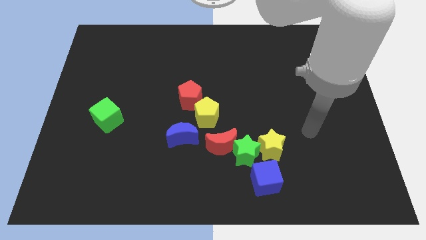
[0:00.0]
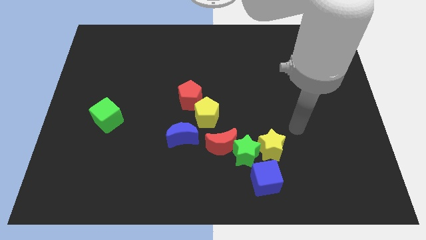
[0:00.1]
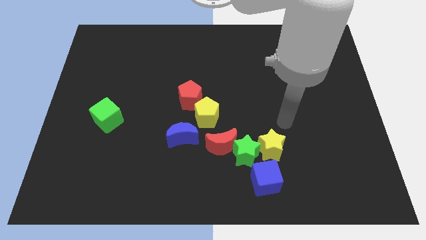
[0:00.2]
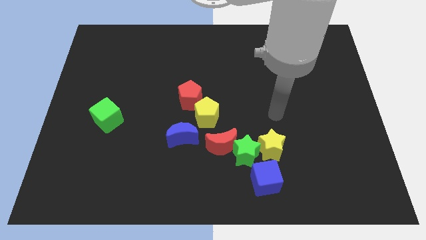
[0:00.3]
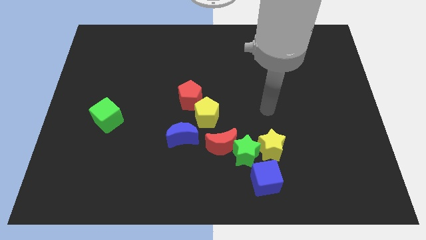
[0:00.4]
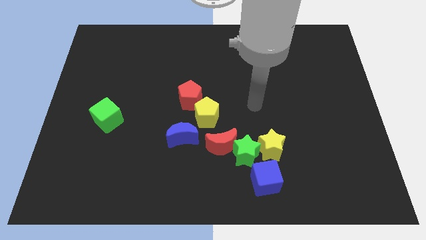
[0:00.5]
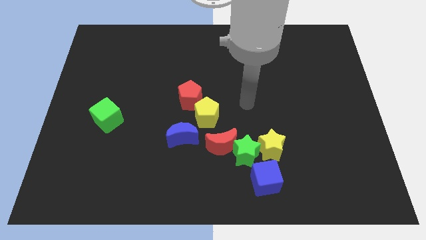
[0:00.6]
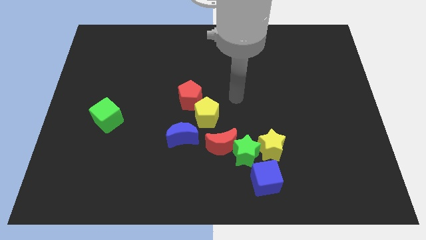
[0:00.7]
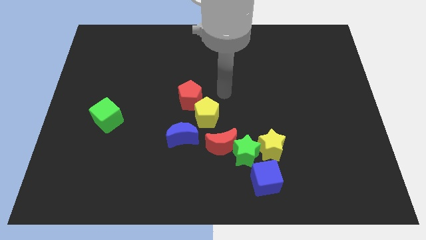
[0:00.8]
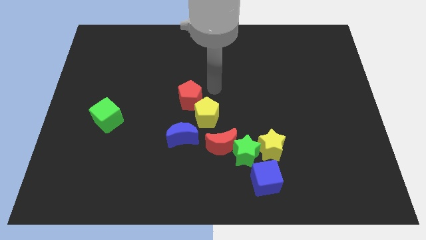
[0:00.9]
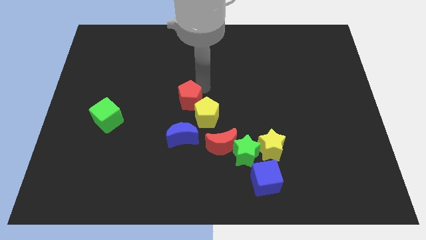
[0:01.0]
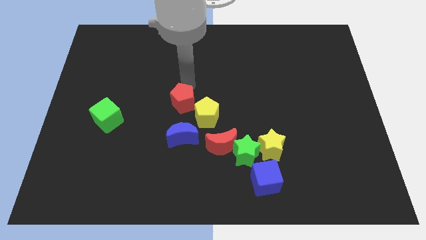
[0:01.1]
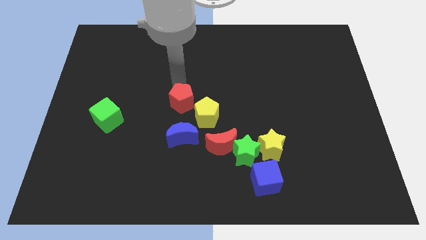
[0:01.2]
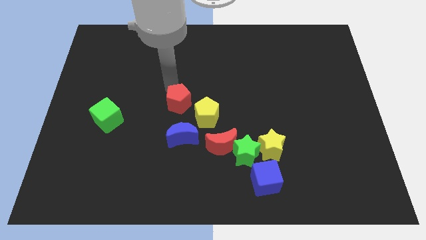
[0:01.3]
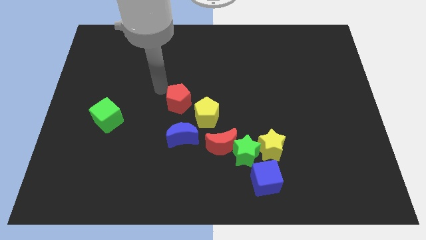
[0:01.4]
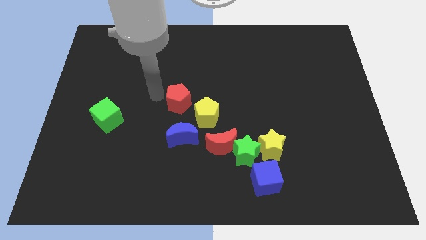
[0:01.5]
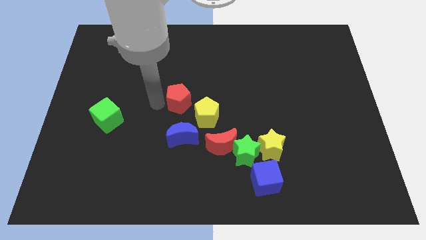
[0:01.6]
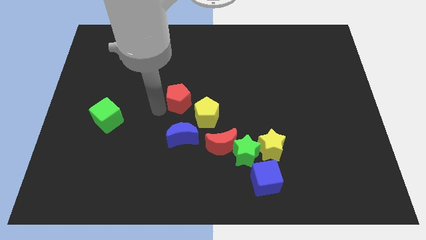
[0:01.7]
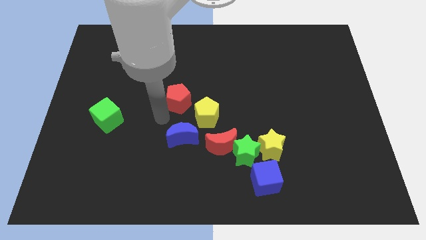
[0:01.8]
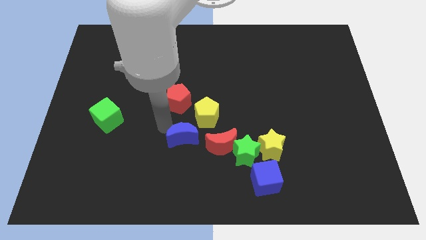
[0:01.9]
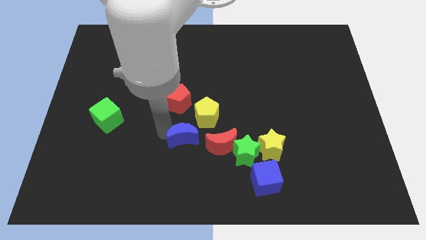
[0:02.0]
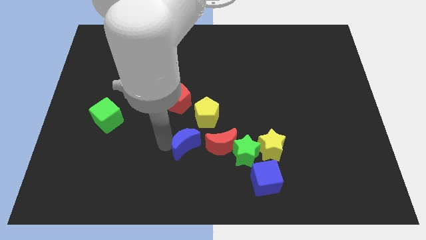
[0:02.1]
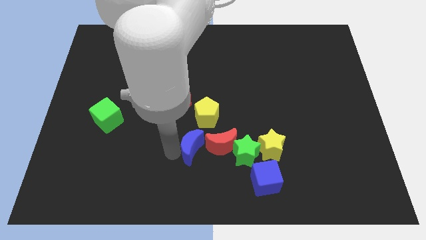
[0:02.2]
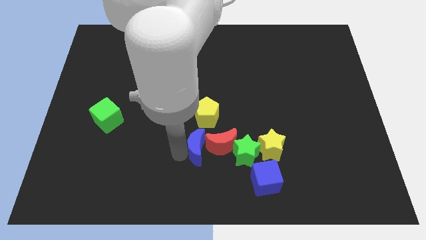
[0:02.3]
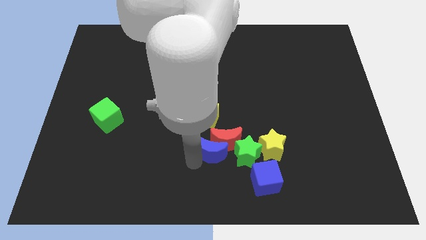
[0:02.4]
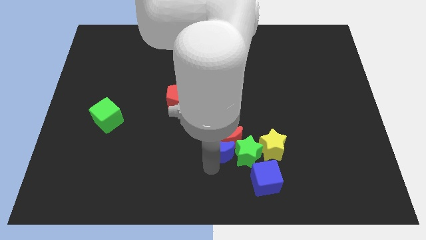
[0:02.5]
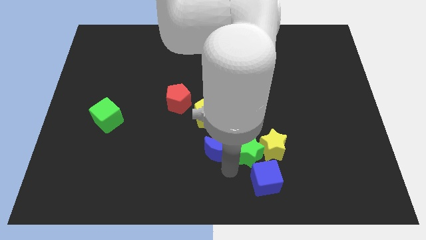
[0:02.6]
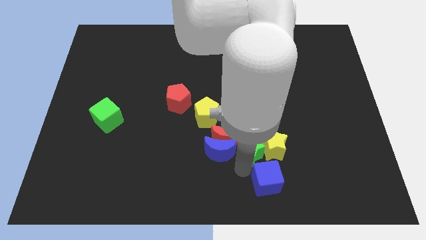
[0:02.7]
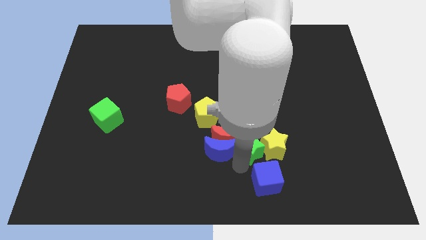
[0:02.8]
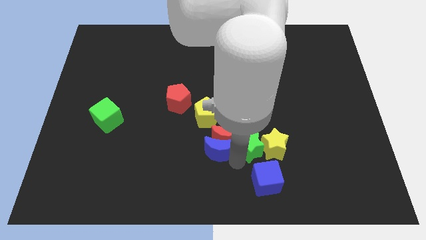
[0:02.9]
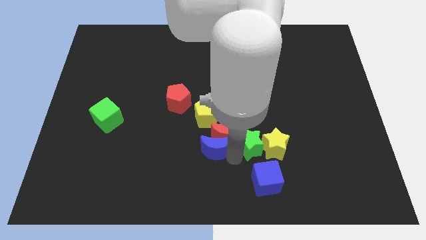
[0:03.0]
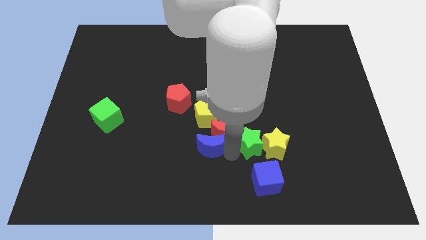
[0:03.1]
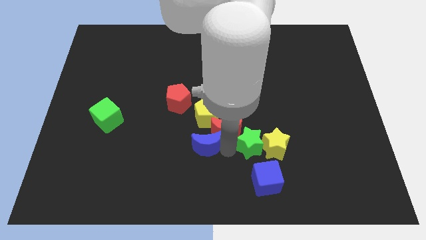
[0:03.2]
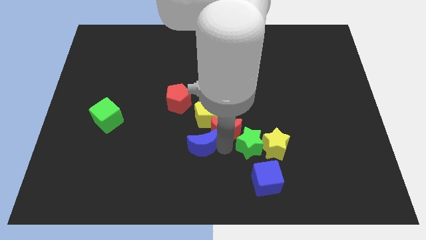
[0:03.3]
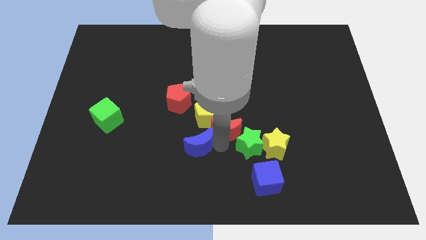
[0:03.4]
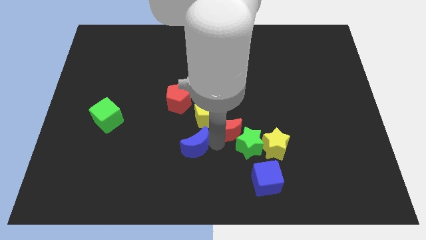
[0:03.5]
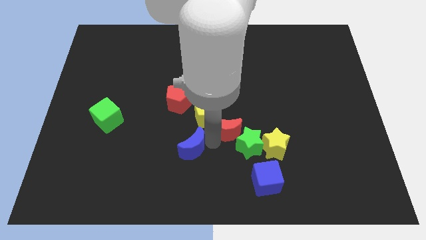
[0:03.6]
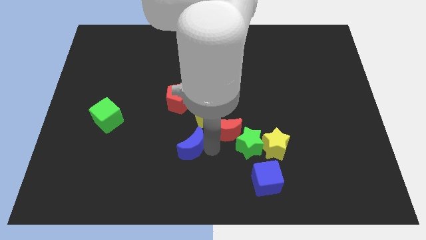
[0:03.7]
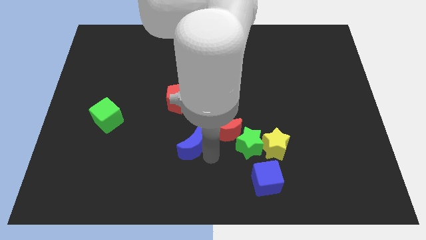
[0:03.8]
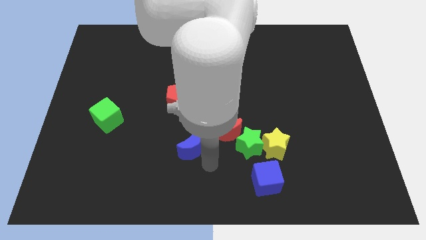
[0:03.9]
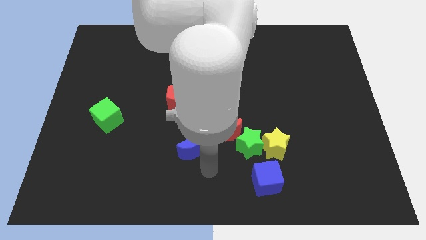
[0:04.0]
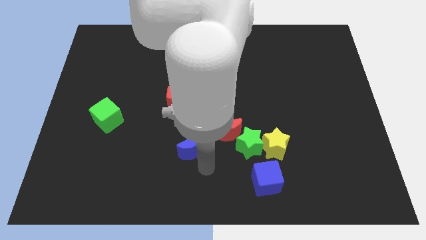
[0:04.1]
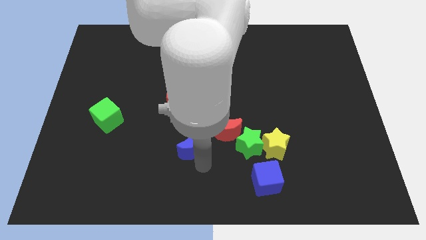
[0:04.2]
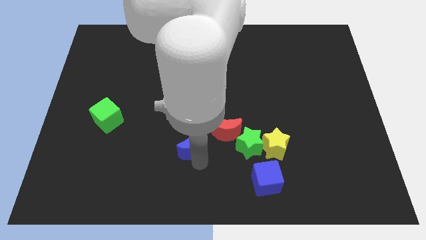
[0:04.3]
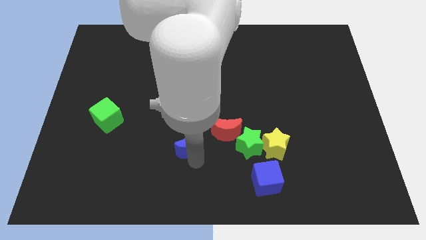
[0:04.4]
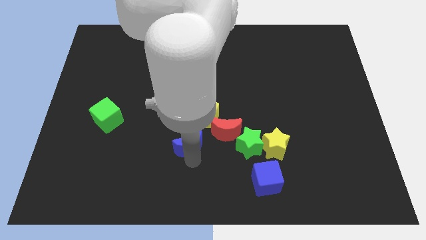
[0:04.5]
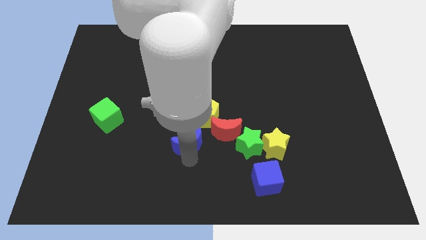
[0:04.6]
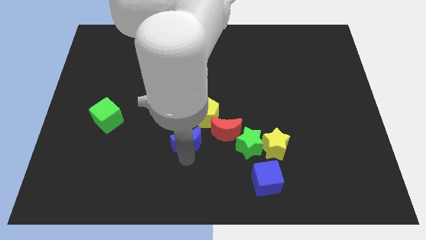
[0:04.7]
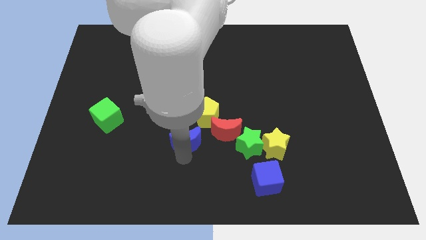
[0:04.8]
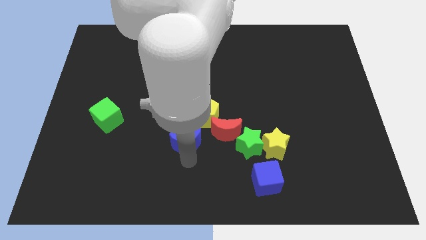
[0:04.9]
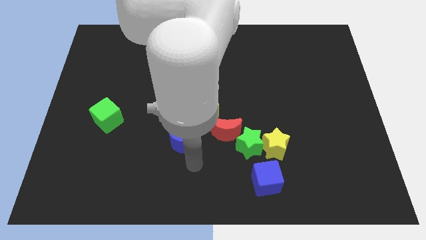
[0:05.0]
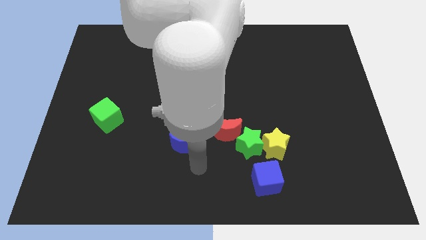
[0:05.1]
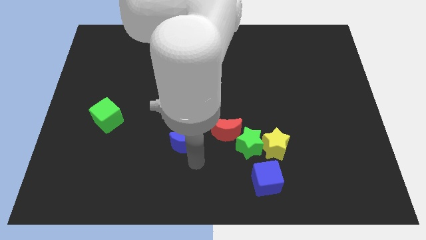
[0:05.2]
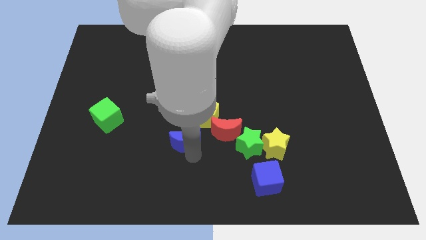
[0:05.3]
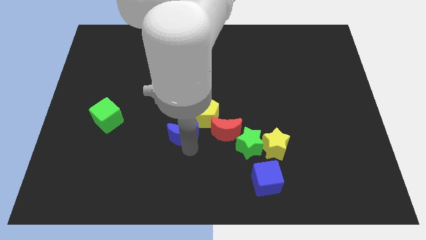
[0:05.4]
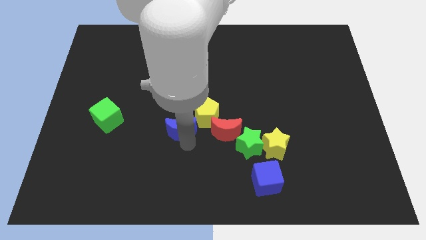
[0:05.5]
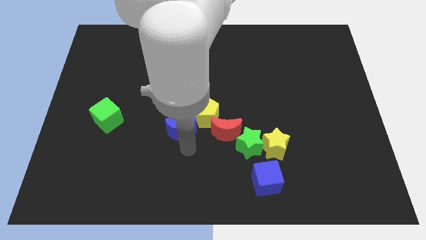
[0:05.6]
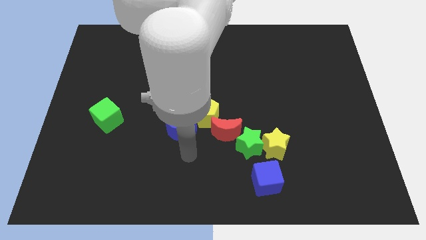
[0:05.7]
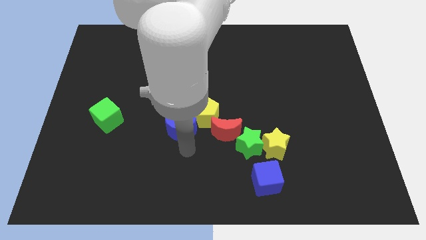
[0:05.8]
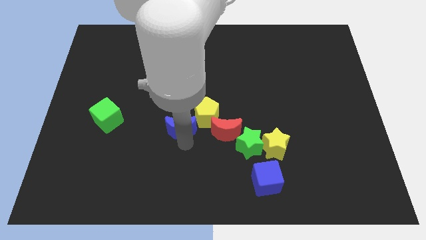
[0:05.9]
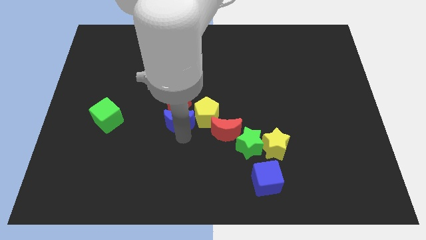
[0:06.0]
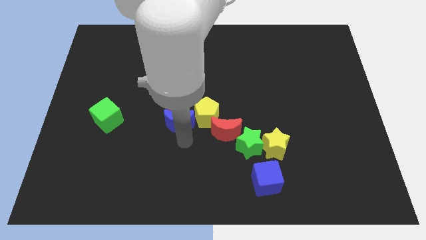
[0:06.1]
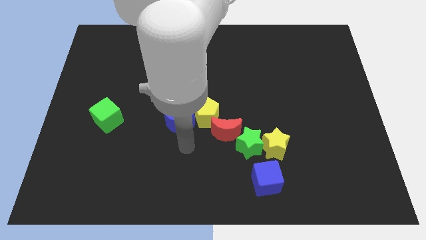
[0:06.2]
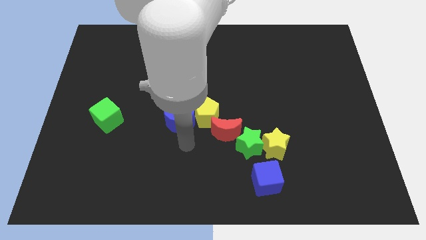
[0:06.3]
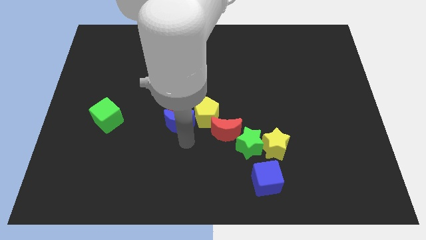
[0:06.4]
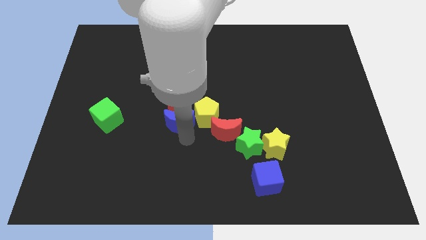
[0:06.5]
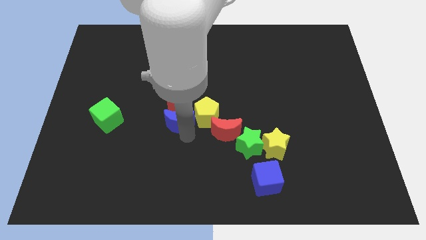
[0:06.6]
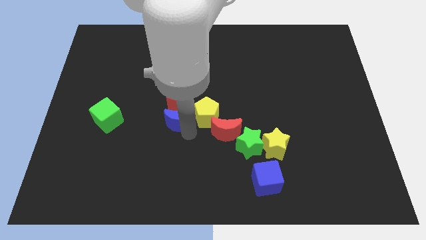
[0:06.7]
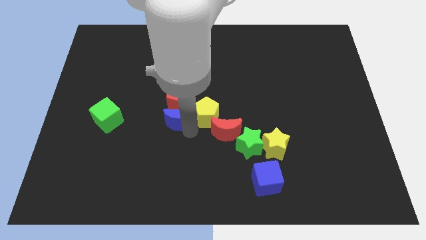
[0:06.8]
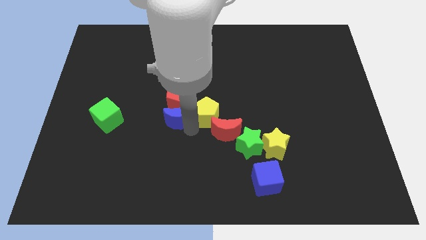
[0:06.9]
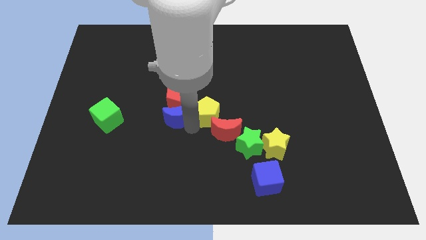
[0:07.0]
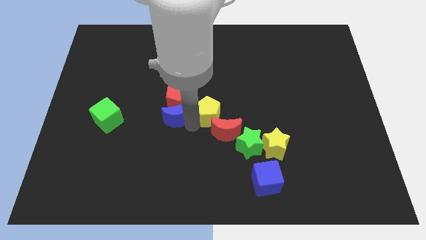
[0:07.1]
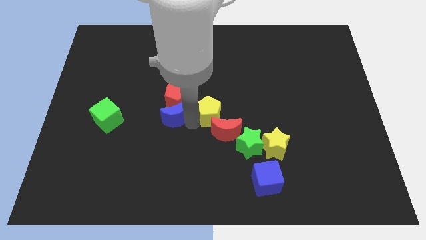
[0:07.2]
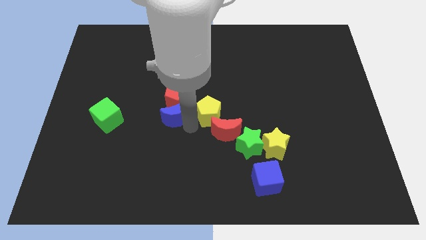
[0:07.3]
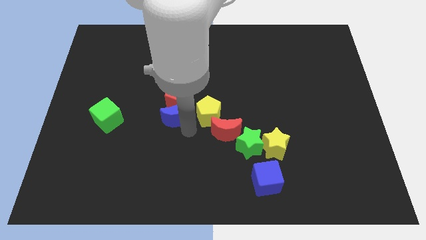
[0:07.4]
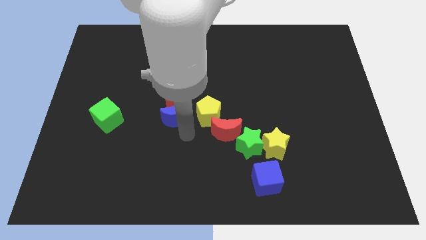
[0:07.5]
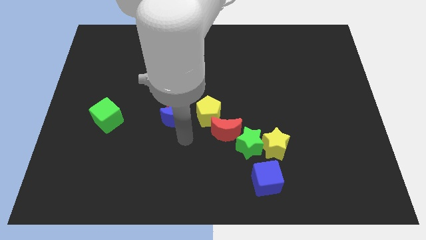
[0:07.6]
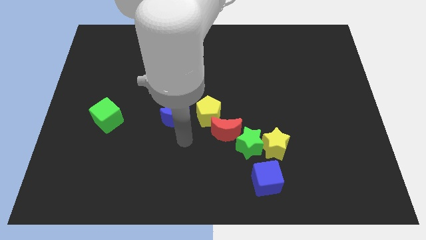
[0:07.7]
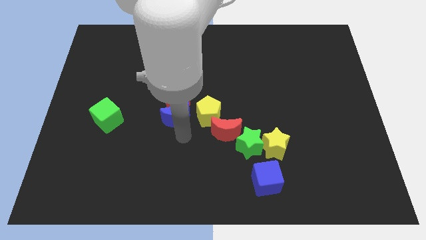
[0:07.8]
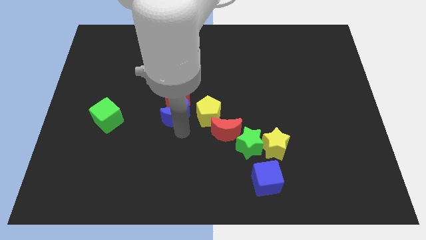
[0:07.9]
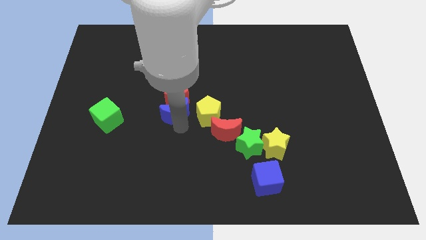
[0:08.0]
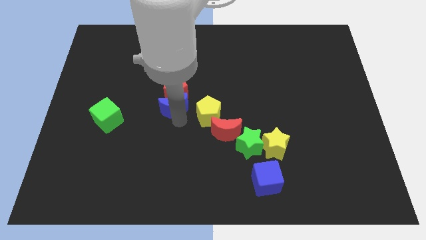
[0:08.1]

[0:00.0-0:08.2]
slide the blue moon a little upwards
